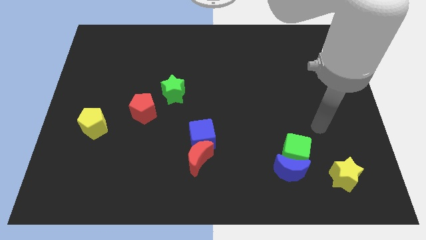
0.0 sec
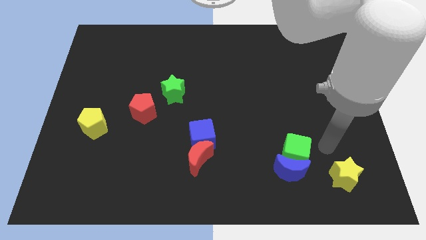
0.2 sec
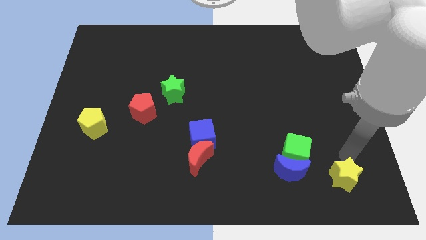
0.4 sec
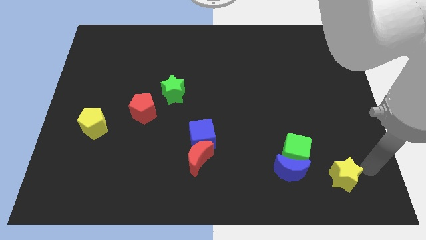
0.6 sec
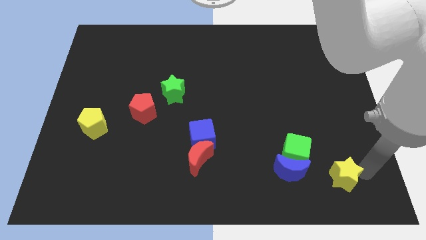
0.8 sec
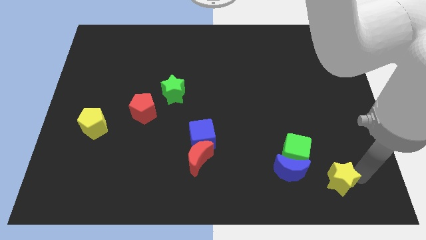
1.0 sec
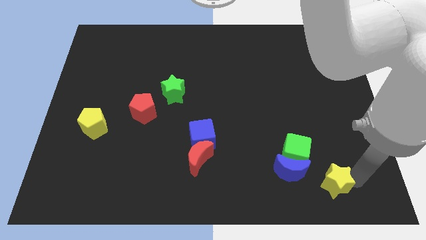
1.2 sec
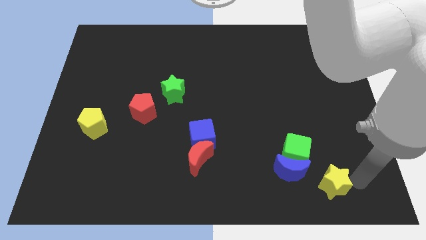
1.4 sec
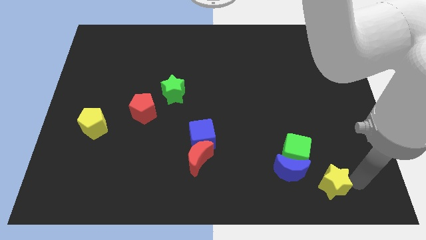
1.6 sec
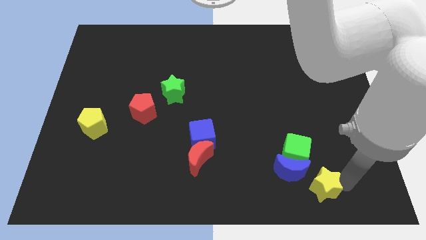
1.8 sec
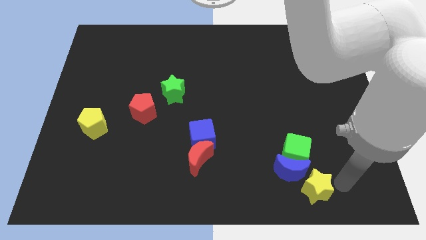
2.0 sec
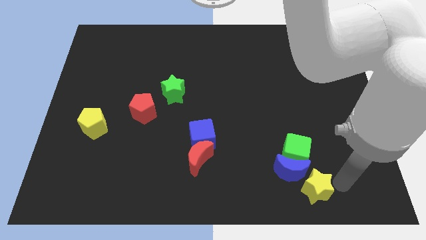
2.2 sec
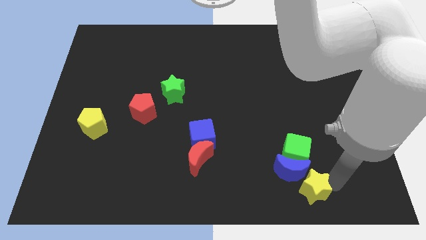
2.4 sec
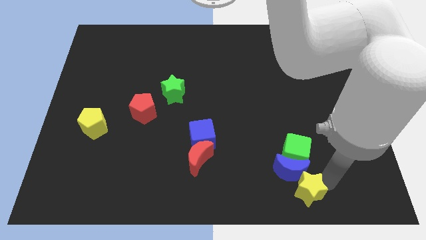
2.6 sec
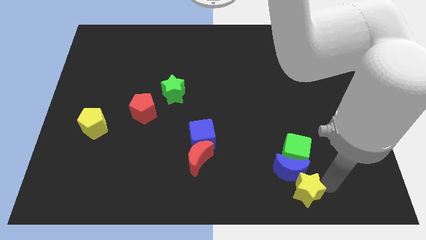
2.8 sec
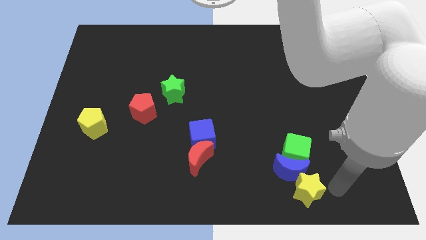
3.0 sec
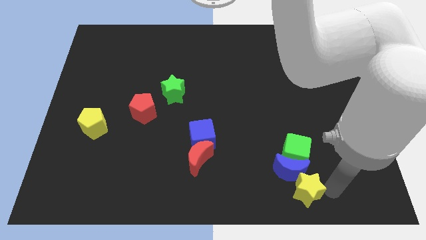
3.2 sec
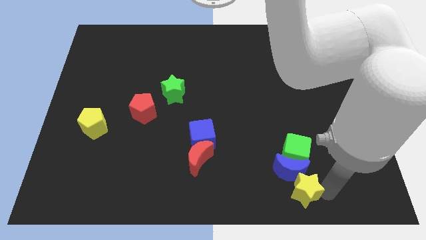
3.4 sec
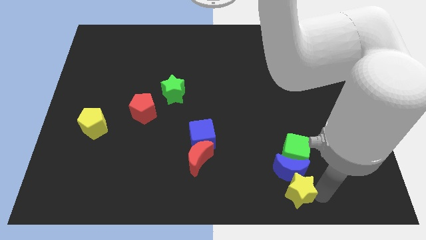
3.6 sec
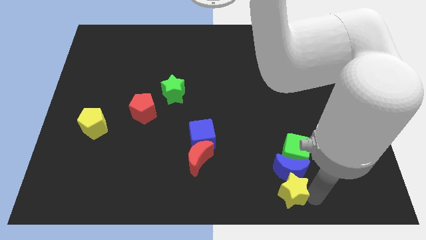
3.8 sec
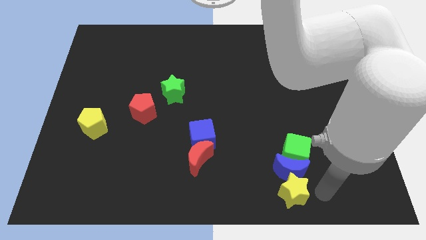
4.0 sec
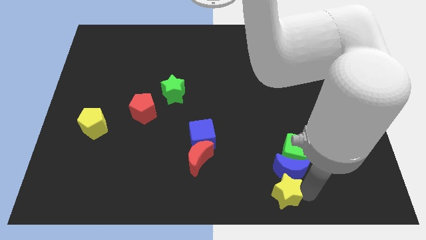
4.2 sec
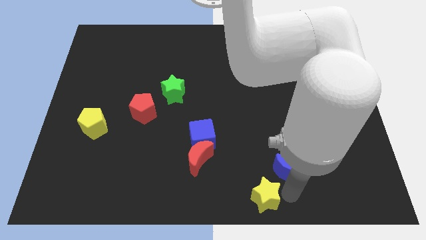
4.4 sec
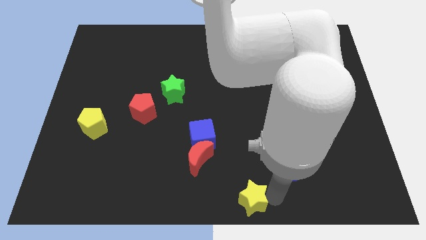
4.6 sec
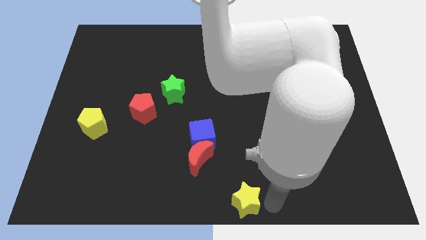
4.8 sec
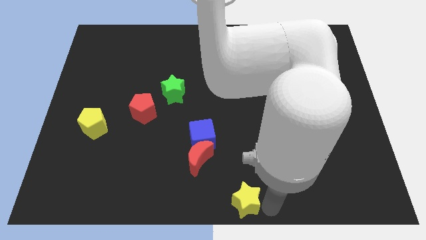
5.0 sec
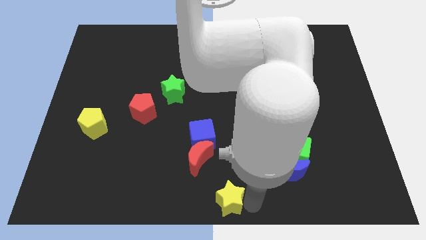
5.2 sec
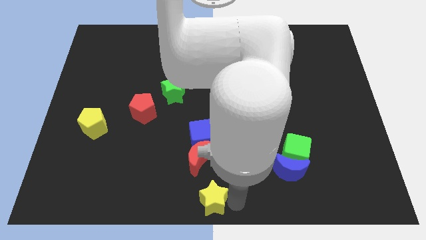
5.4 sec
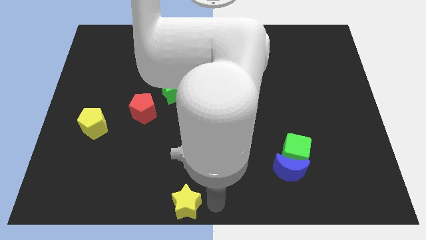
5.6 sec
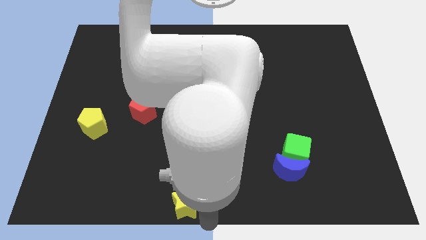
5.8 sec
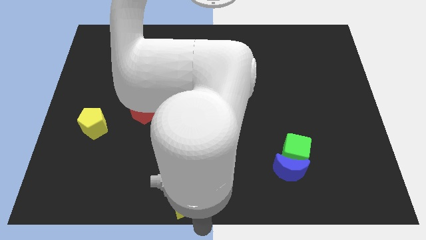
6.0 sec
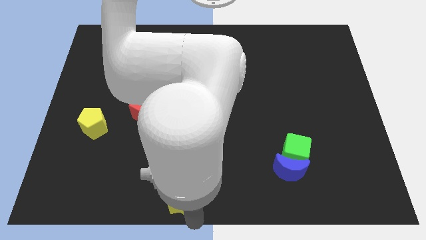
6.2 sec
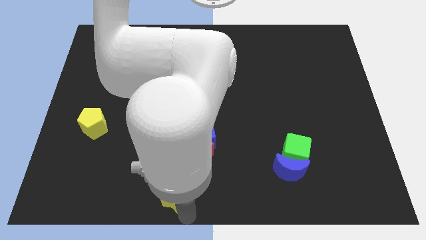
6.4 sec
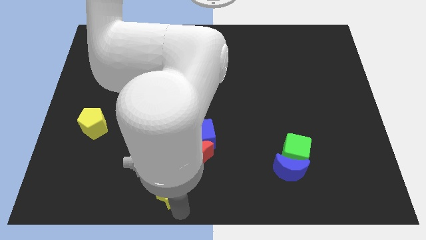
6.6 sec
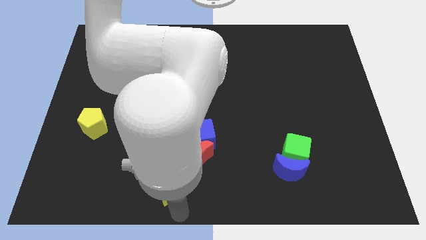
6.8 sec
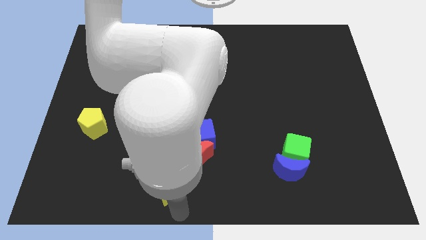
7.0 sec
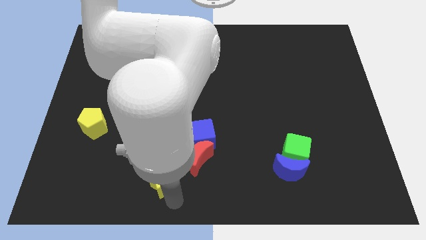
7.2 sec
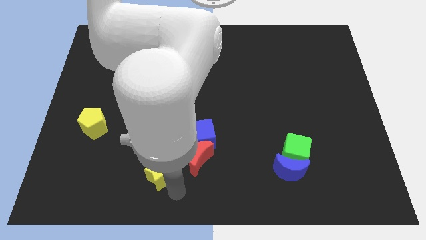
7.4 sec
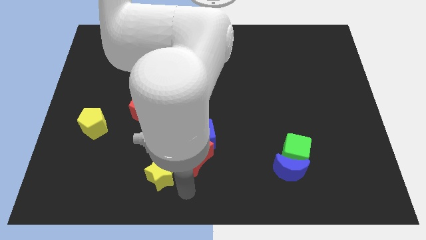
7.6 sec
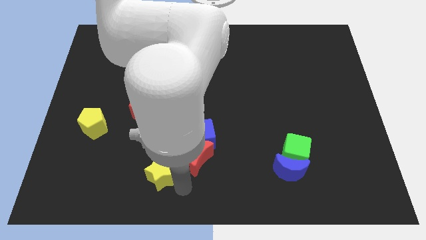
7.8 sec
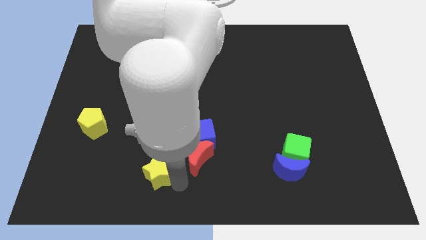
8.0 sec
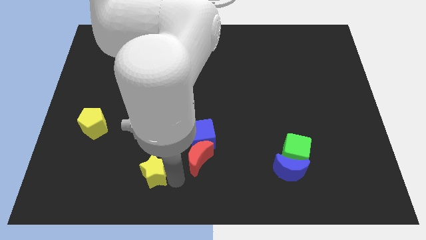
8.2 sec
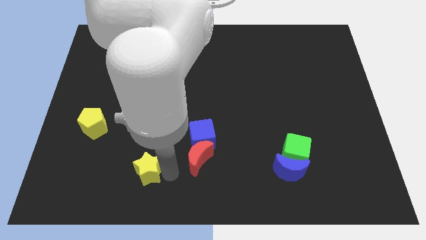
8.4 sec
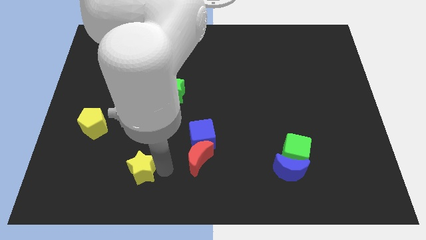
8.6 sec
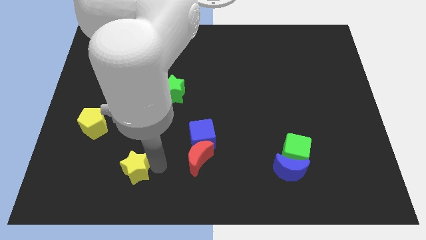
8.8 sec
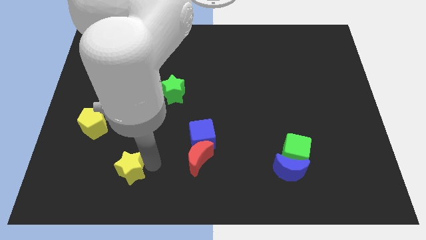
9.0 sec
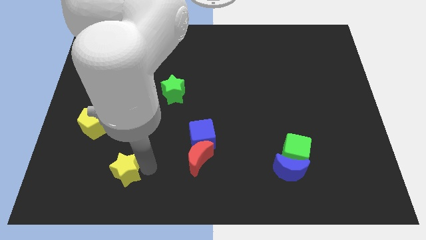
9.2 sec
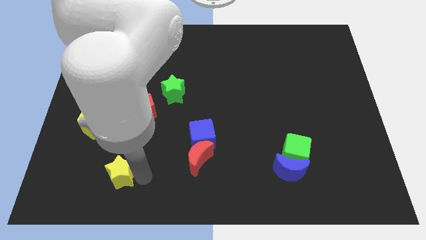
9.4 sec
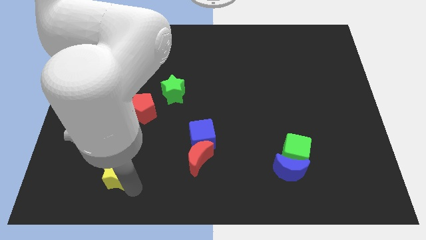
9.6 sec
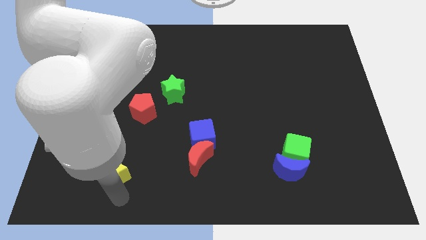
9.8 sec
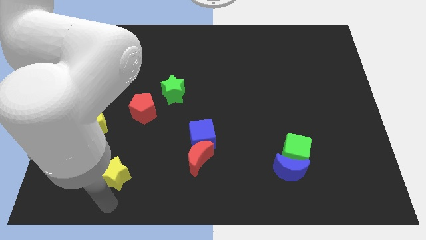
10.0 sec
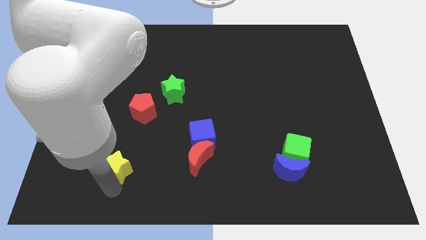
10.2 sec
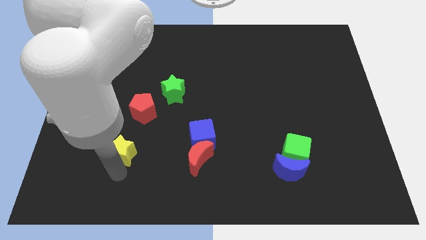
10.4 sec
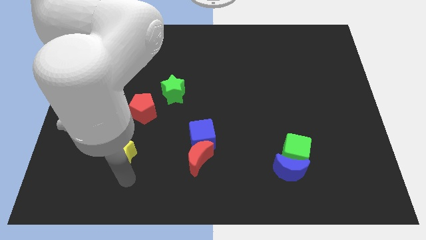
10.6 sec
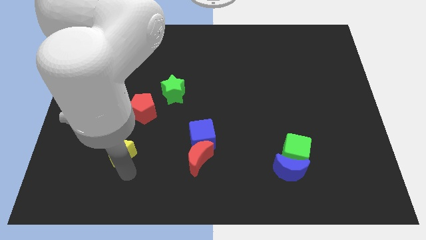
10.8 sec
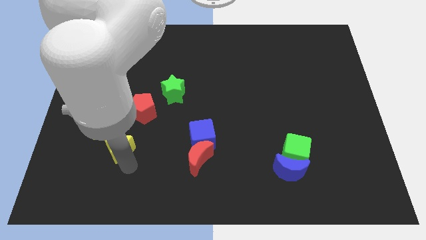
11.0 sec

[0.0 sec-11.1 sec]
push the yellow star to the bottom left of the red pentagon

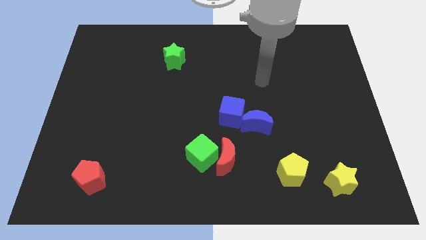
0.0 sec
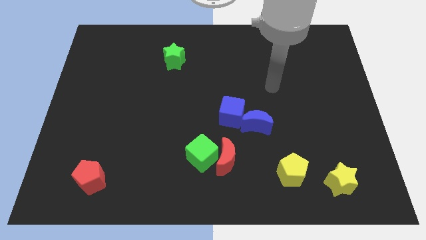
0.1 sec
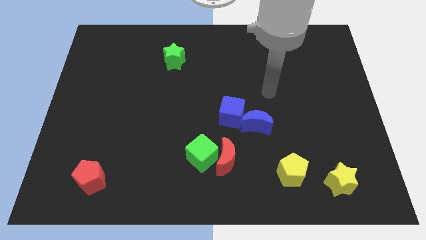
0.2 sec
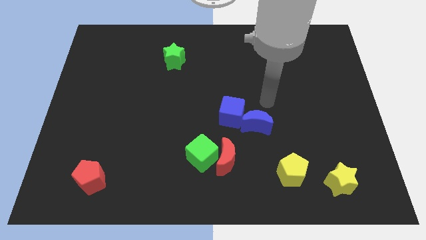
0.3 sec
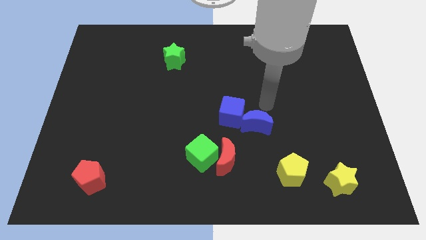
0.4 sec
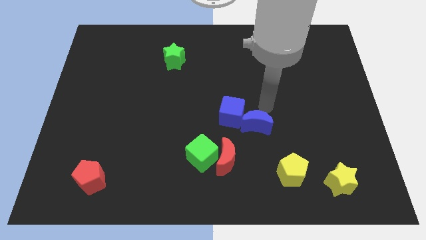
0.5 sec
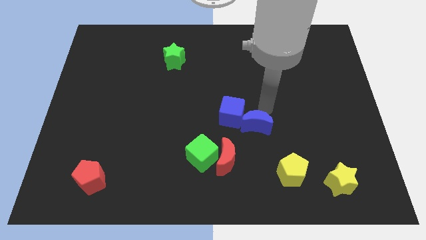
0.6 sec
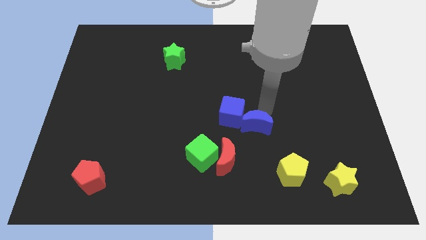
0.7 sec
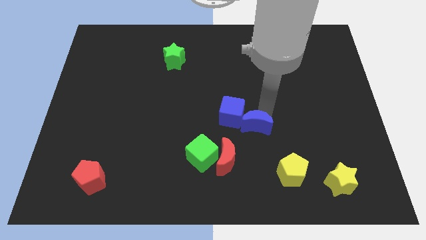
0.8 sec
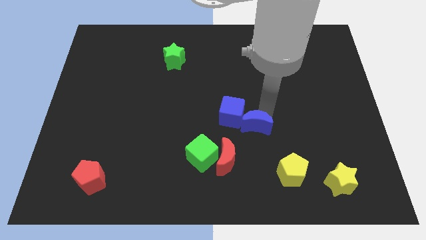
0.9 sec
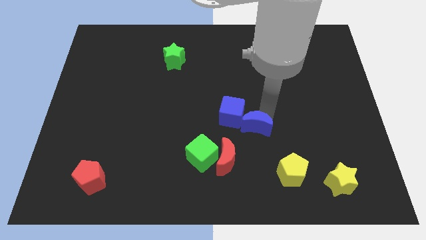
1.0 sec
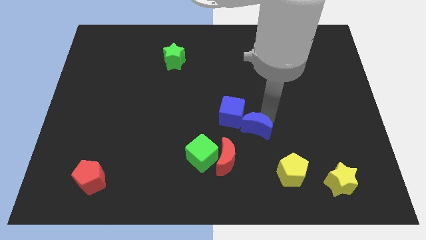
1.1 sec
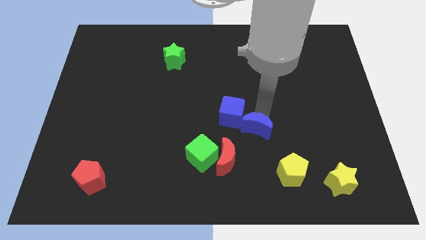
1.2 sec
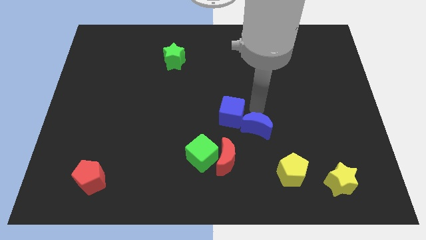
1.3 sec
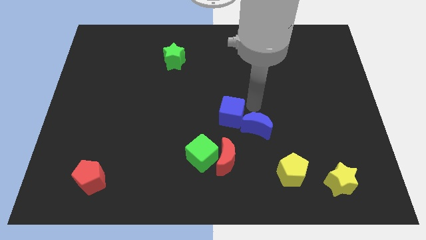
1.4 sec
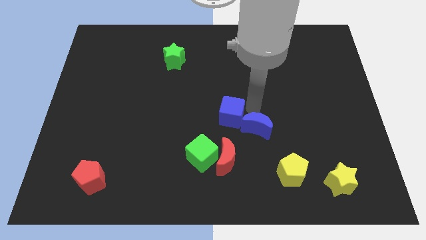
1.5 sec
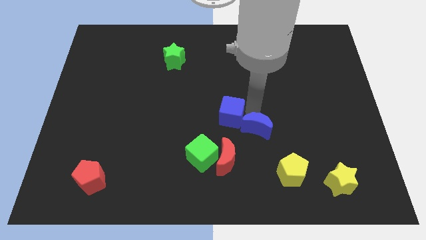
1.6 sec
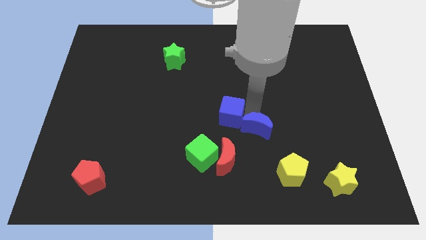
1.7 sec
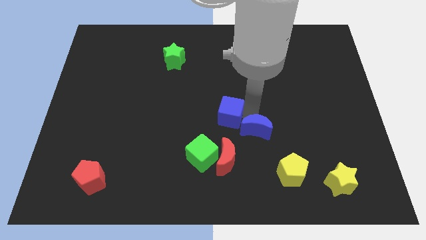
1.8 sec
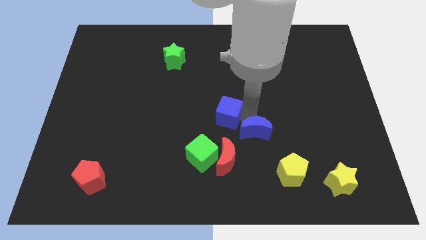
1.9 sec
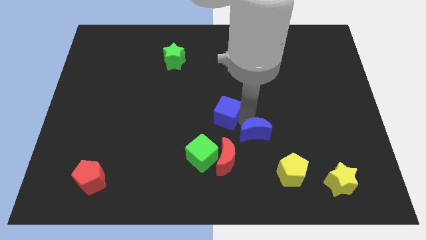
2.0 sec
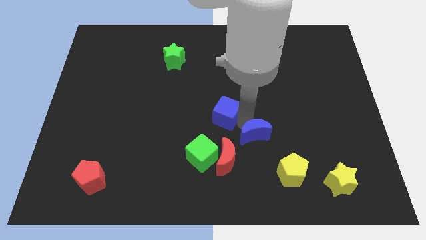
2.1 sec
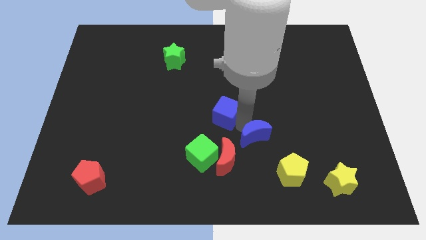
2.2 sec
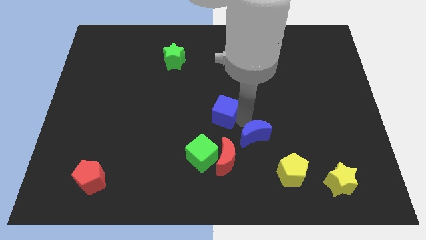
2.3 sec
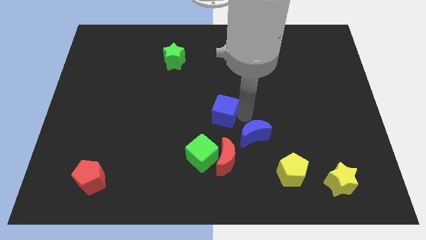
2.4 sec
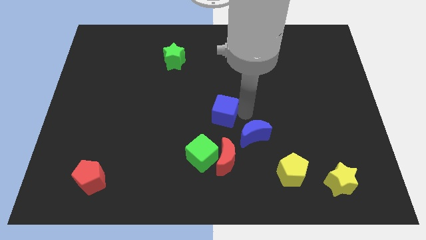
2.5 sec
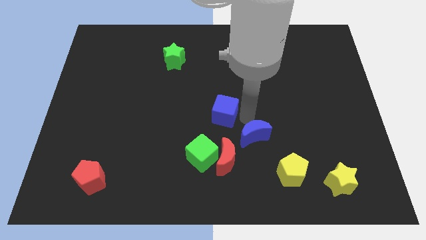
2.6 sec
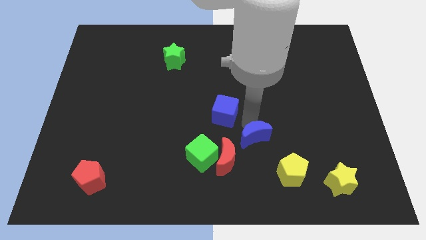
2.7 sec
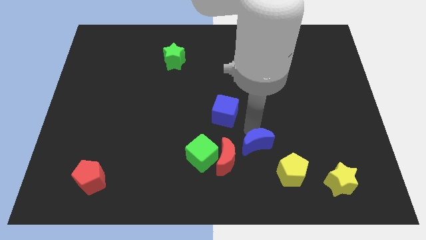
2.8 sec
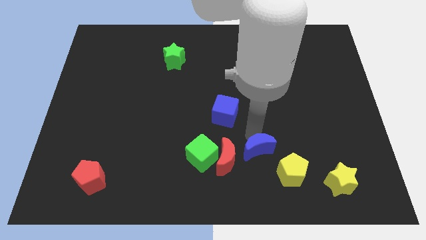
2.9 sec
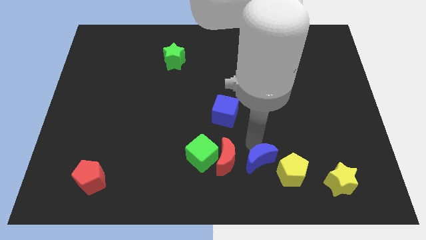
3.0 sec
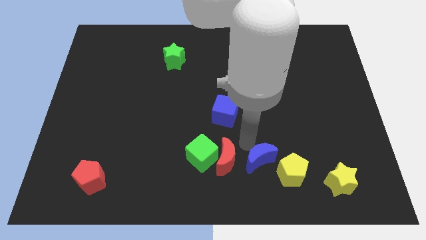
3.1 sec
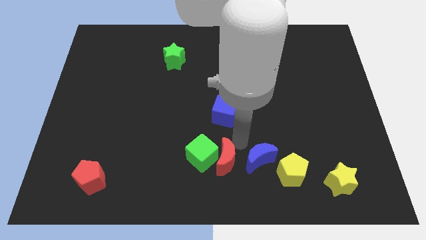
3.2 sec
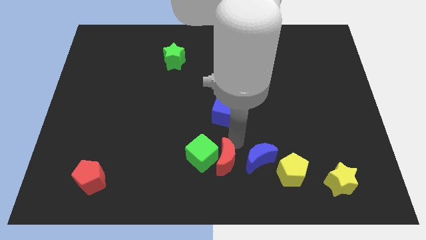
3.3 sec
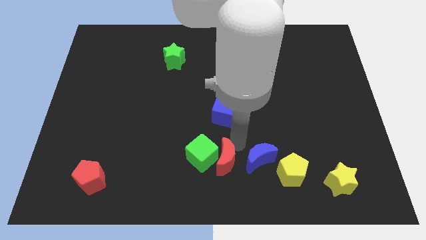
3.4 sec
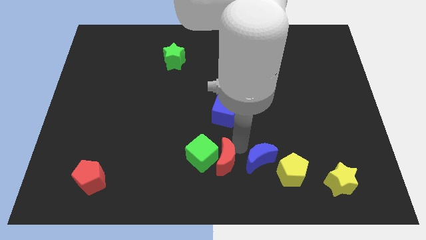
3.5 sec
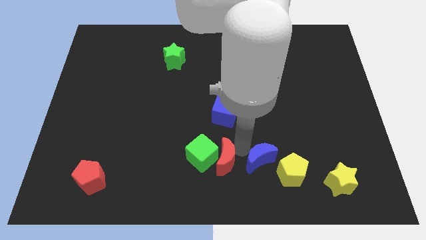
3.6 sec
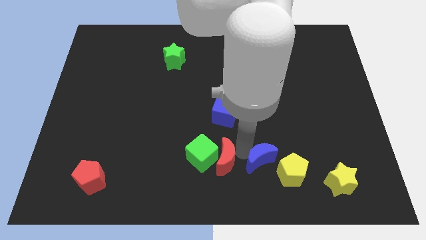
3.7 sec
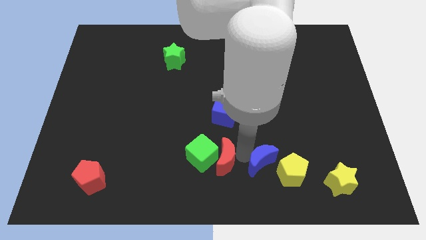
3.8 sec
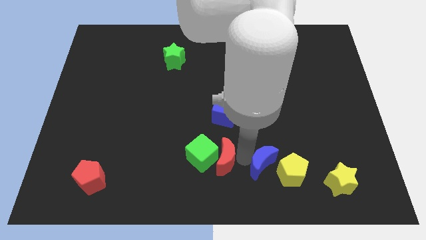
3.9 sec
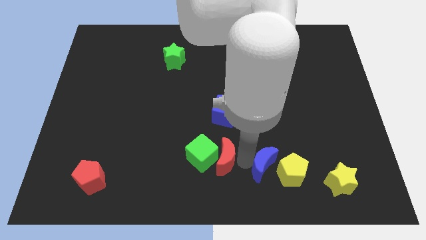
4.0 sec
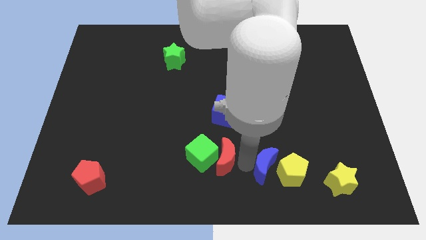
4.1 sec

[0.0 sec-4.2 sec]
put the blue moon left of the yellow star
